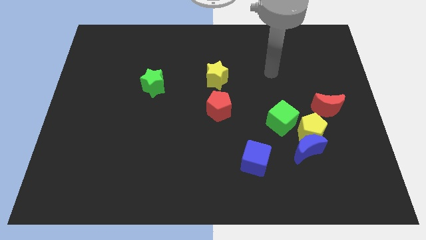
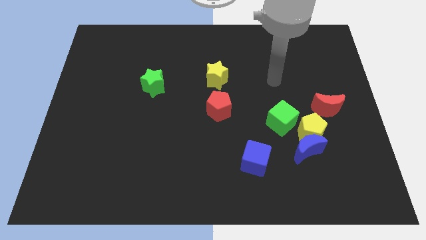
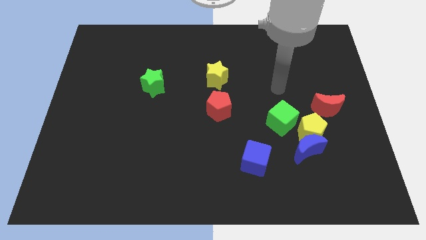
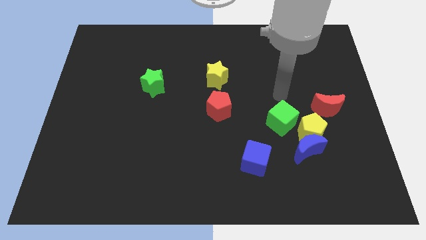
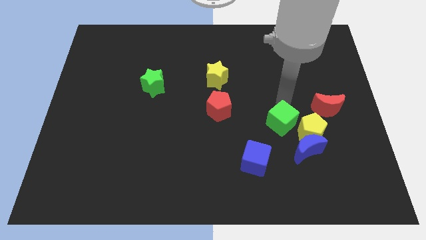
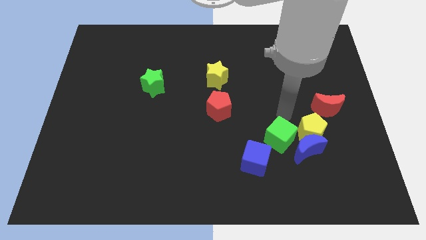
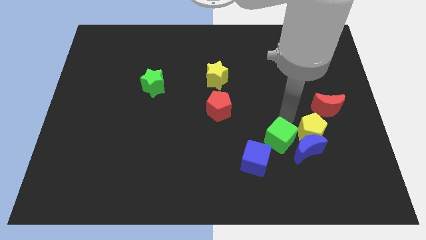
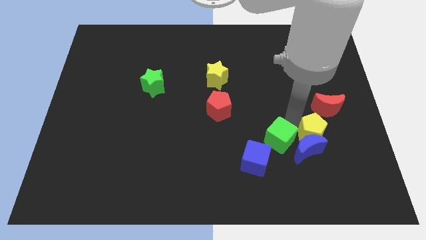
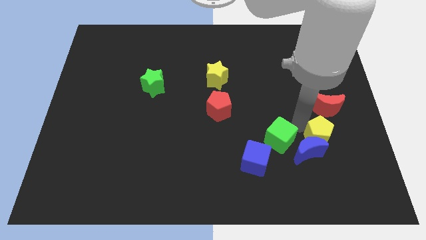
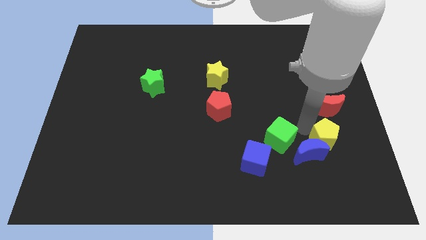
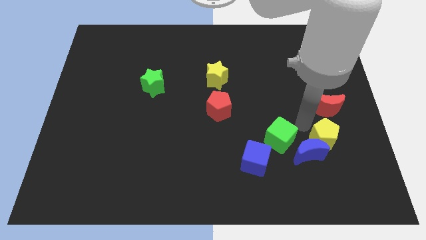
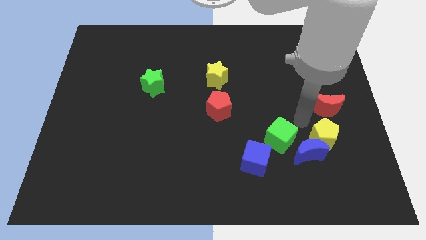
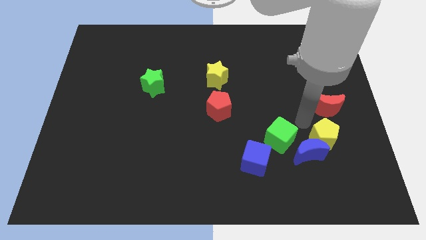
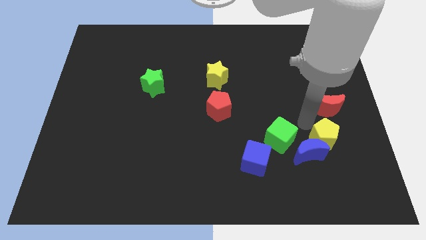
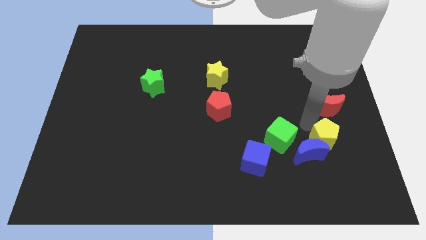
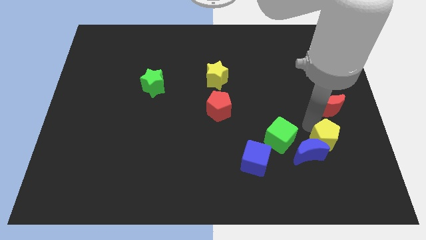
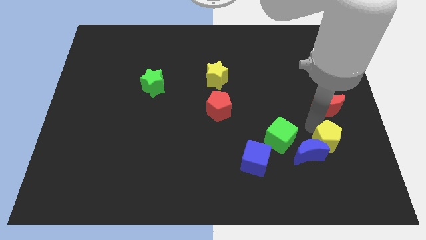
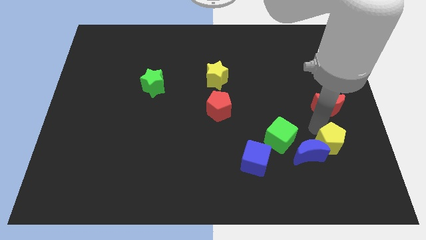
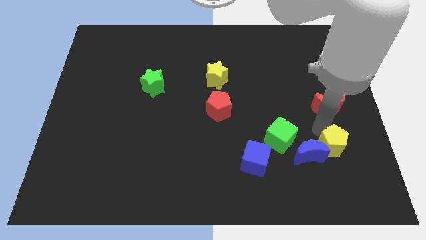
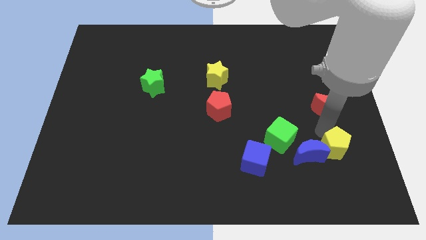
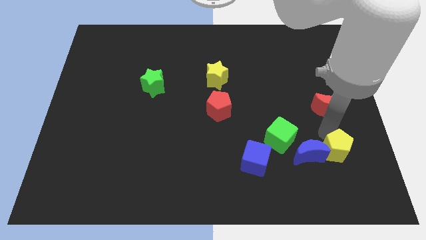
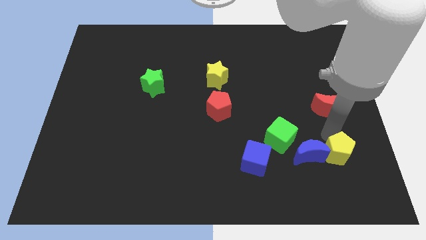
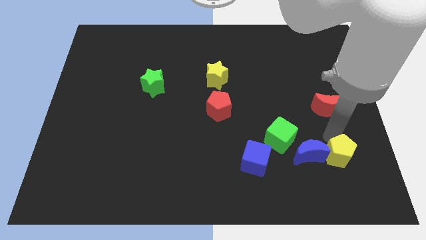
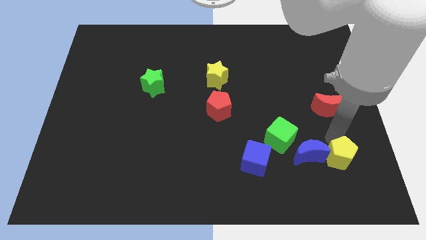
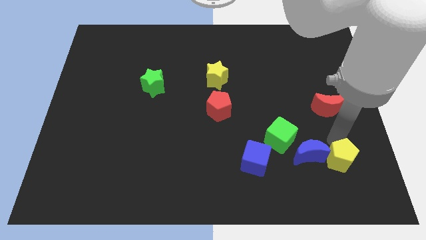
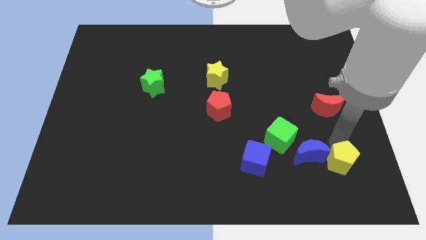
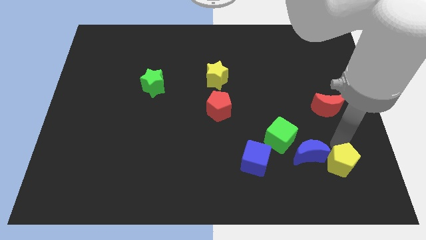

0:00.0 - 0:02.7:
pull the yellow pentagon apart from the blue moon, green cube, and red moon

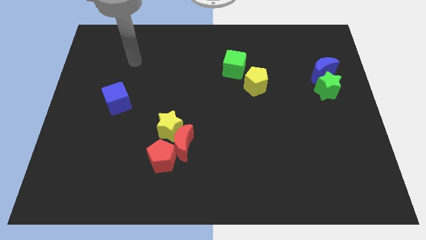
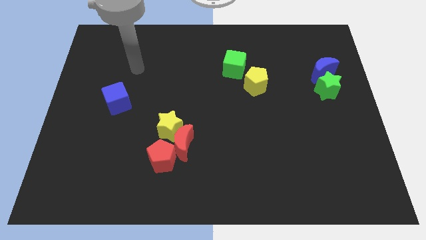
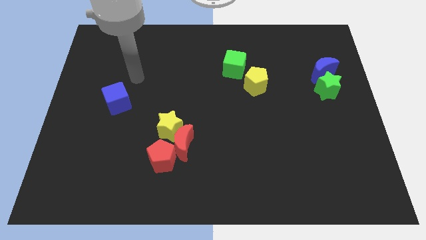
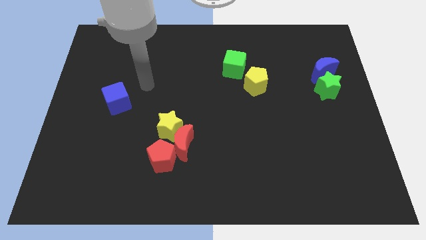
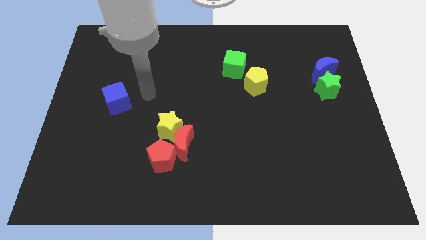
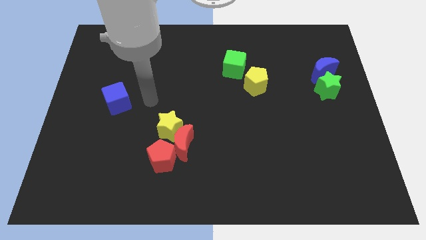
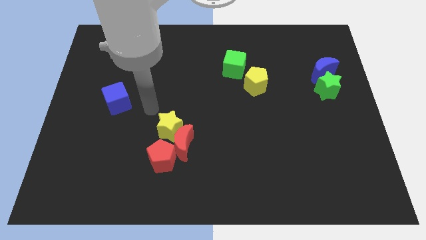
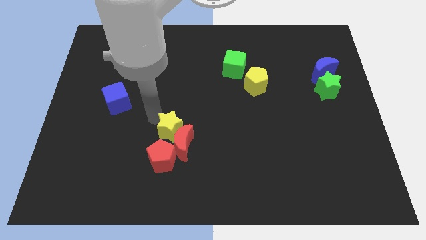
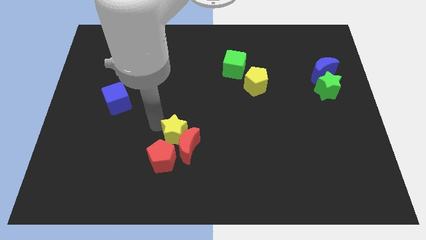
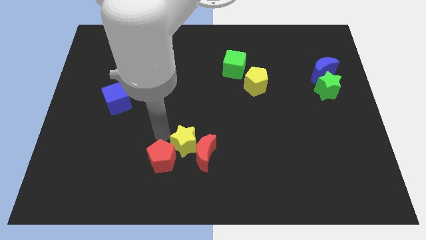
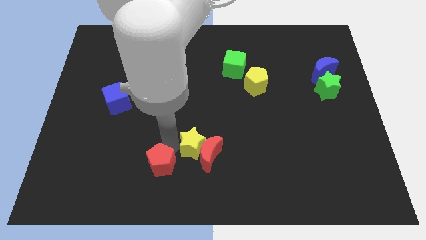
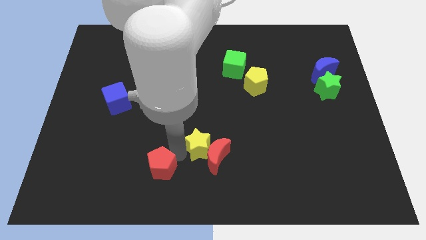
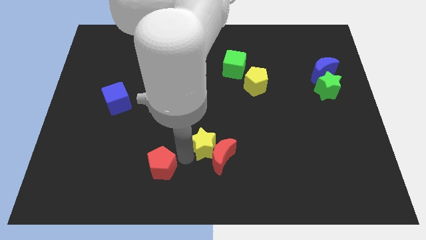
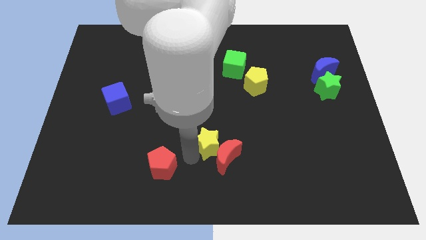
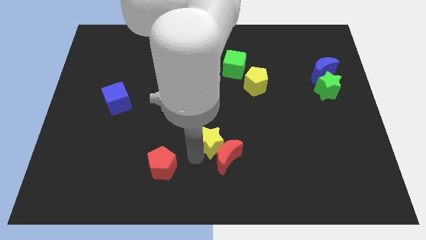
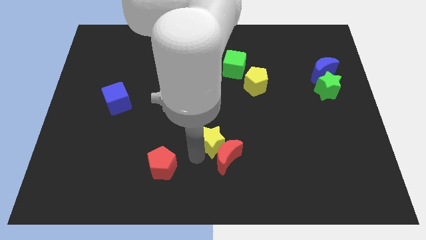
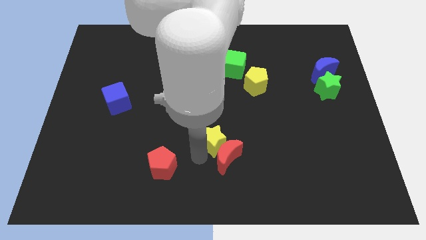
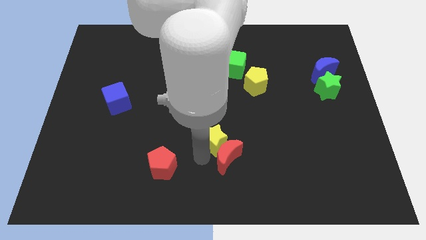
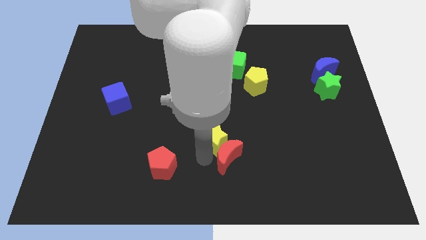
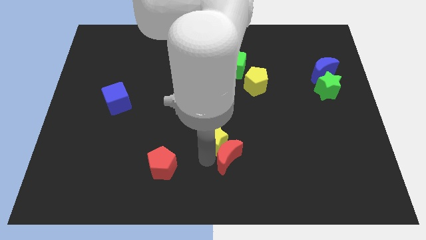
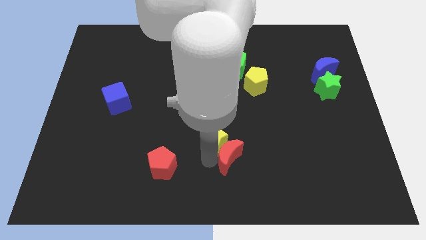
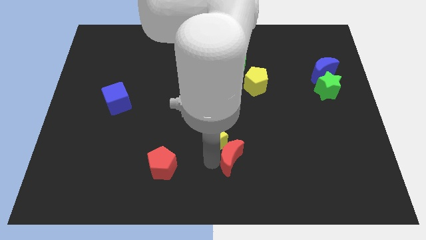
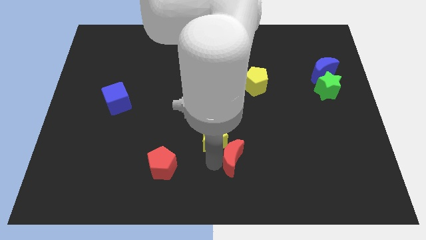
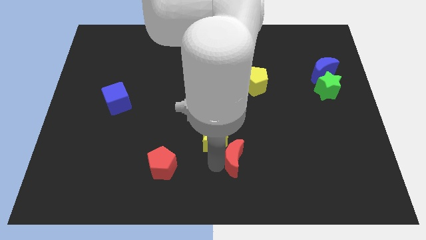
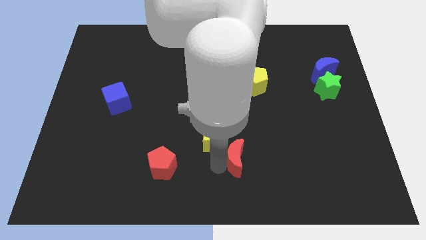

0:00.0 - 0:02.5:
separate the red moon from the yellow star and red pentagon

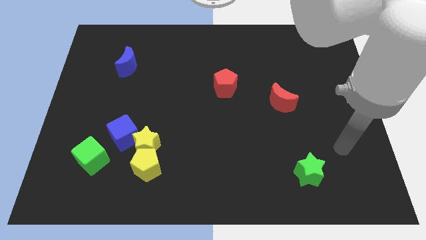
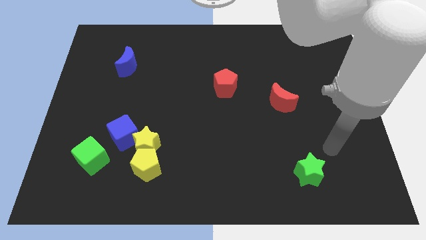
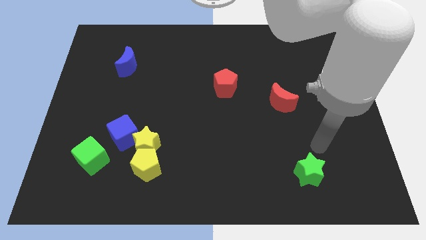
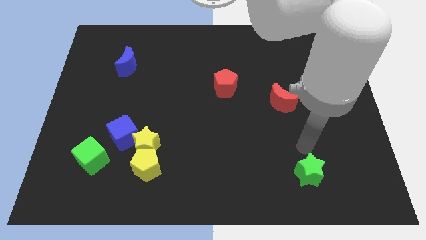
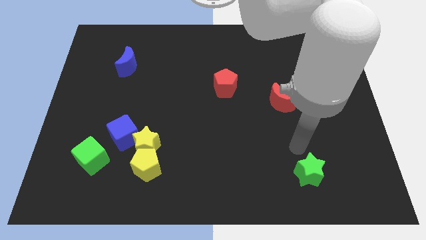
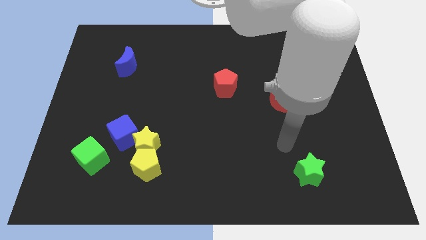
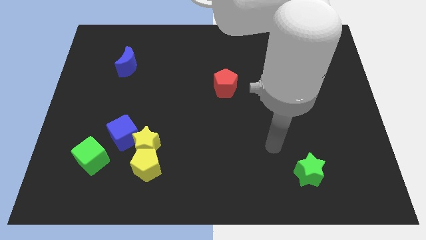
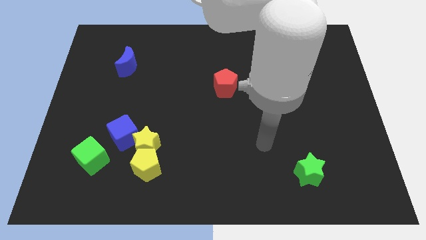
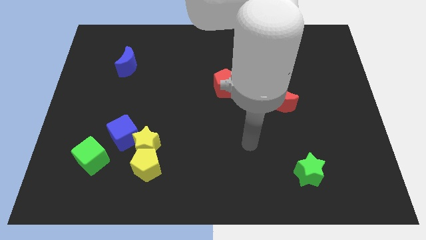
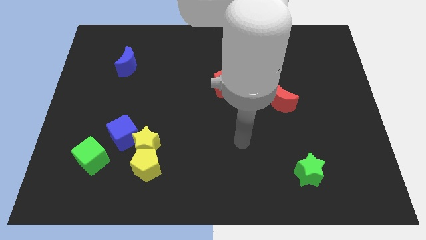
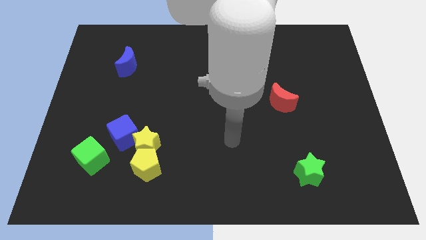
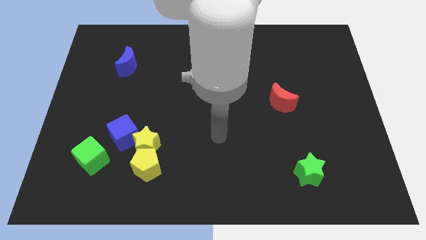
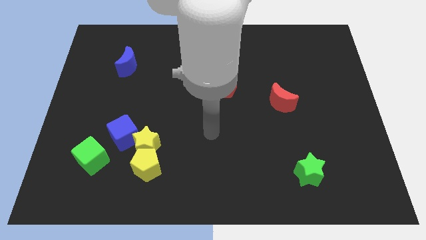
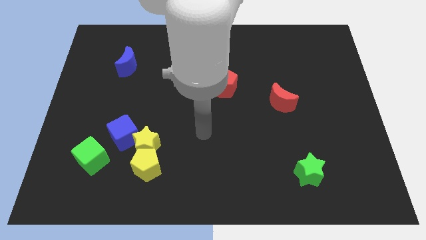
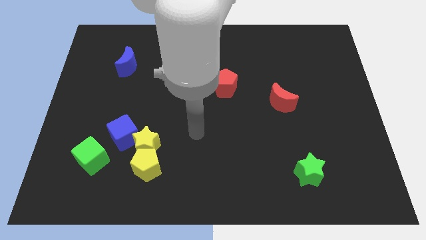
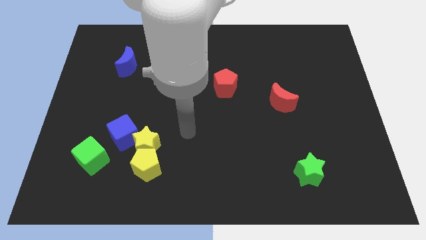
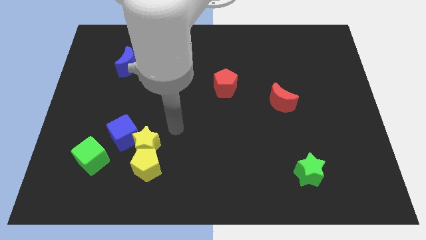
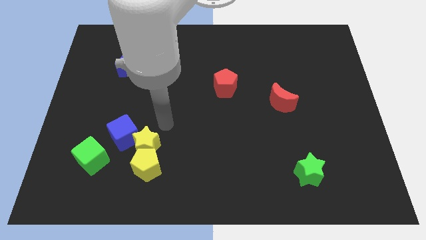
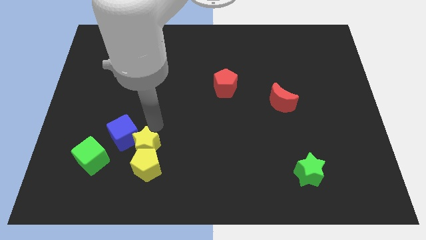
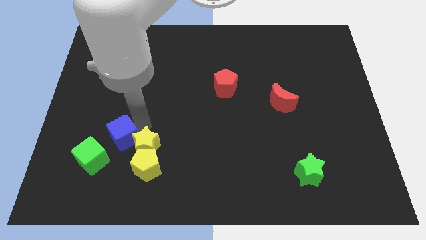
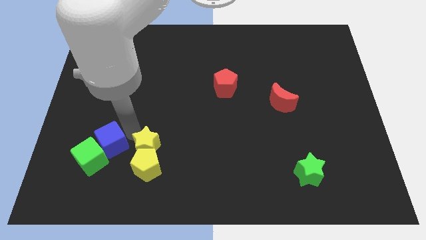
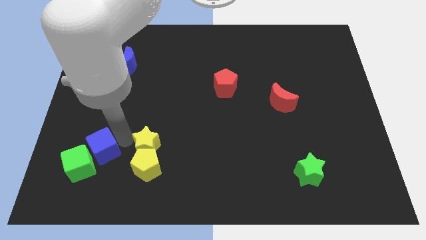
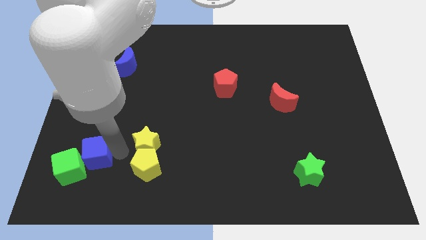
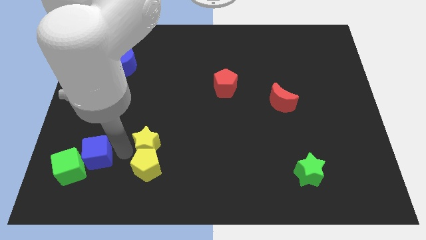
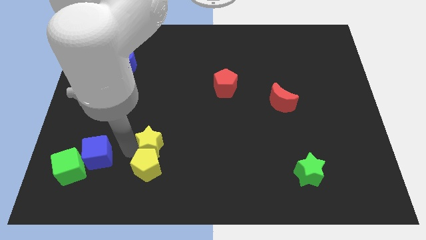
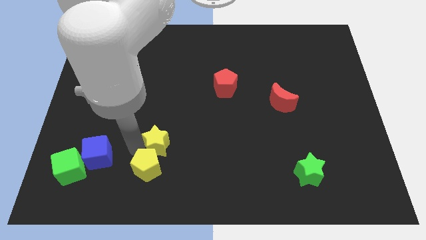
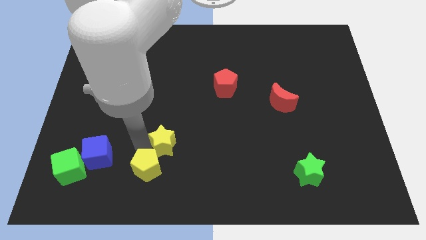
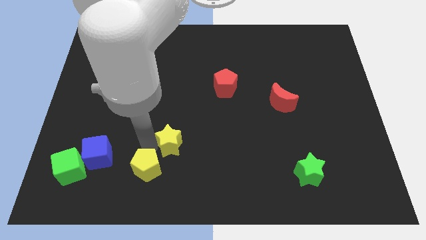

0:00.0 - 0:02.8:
separate the yellow star from the yellow pentagon and blue cube

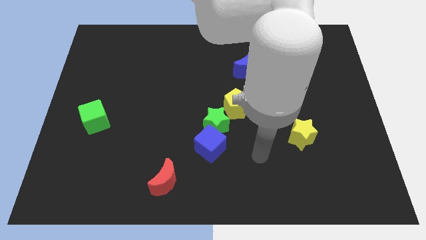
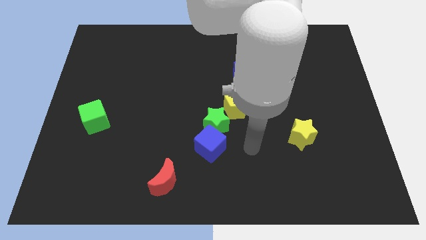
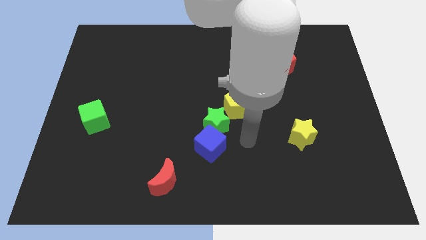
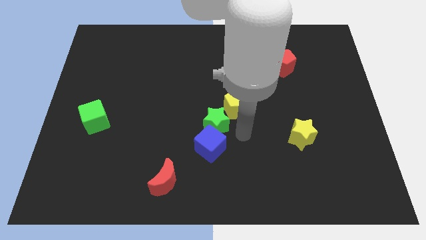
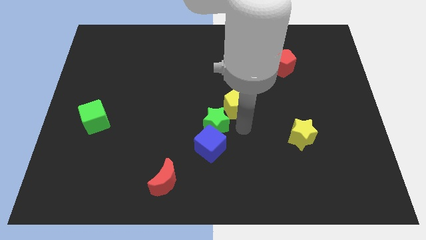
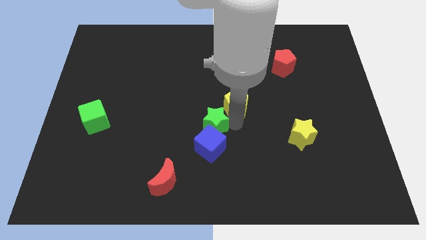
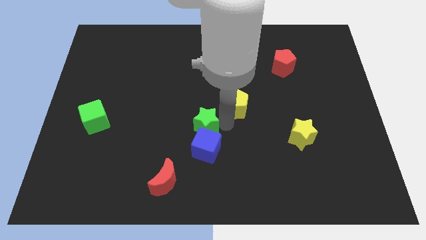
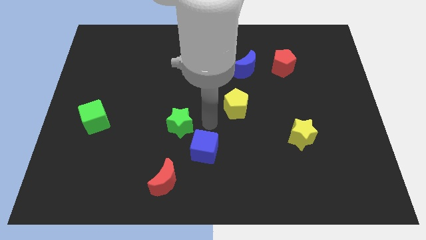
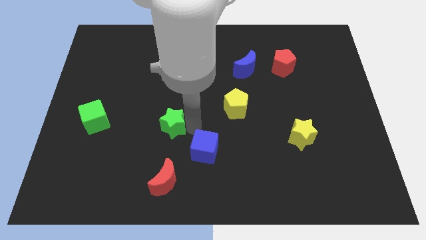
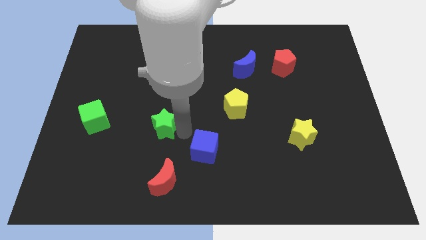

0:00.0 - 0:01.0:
move the blue cube away from the green star

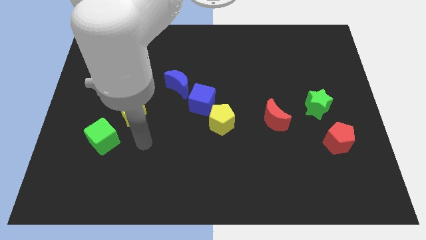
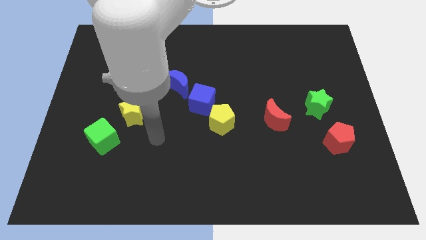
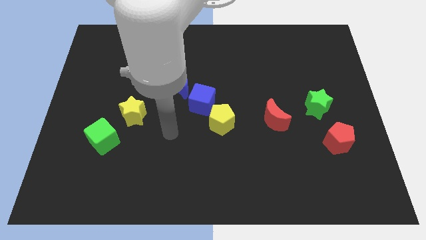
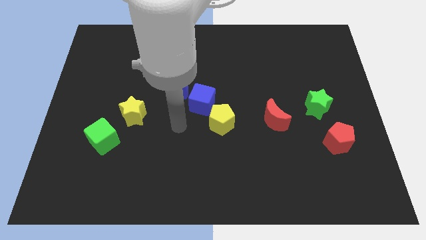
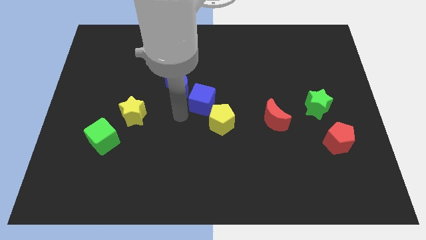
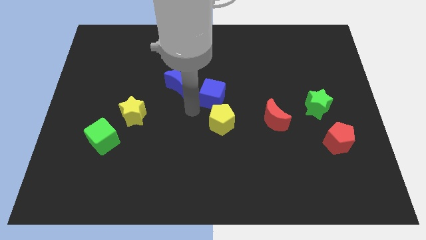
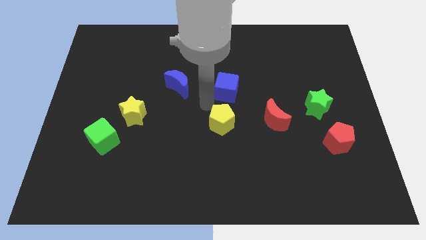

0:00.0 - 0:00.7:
pull the yellow pentagon apart from the blue cube
